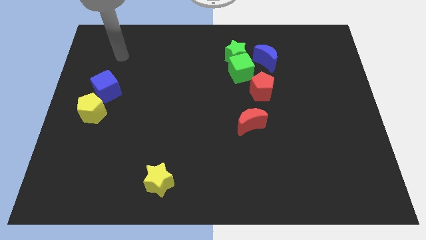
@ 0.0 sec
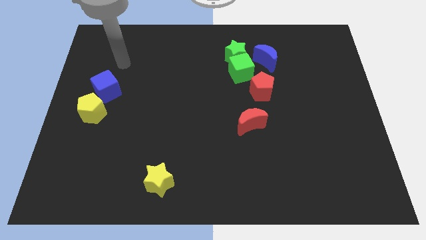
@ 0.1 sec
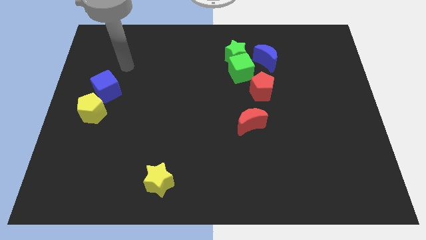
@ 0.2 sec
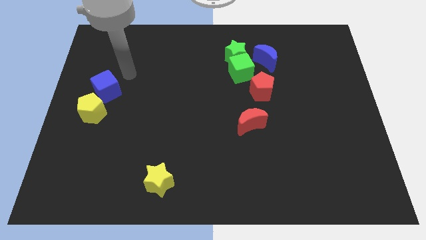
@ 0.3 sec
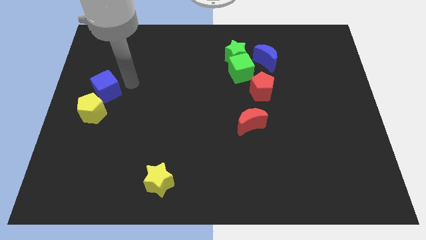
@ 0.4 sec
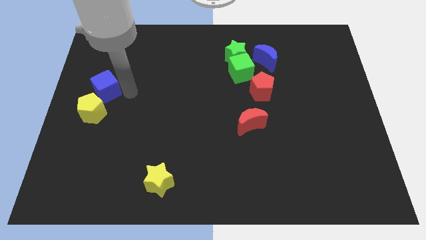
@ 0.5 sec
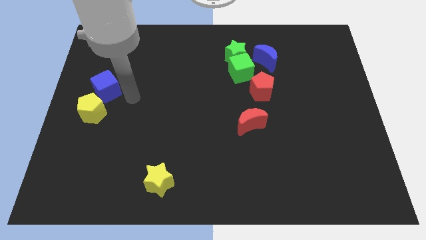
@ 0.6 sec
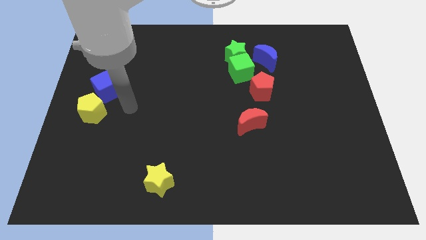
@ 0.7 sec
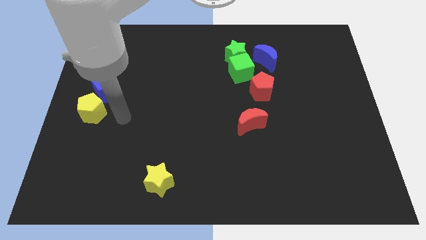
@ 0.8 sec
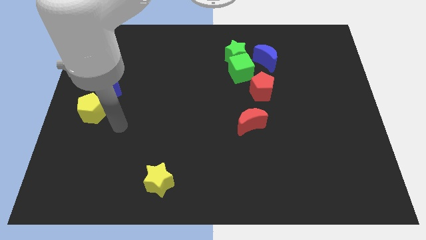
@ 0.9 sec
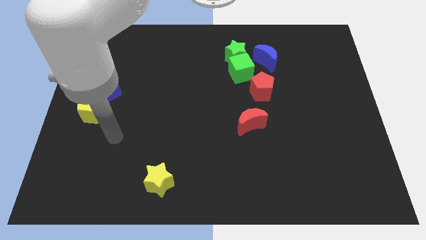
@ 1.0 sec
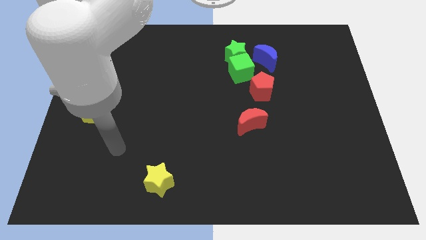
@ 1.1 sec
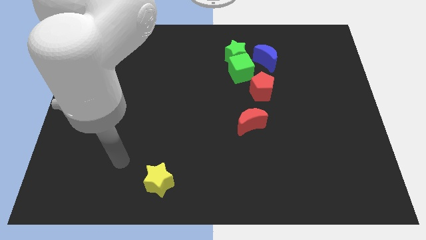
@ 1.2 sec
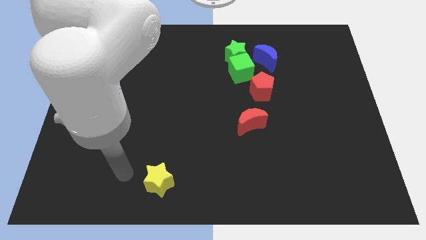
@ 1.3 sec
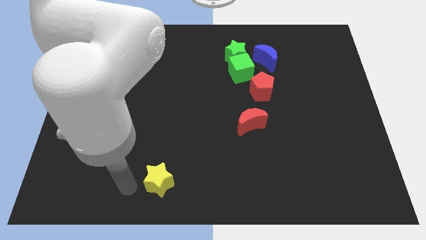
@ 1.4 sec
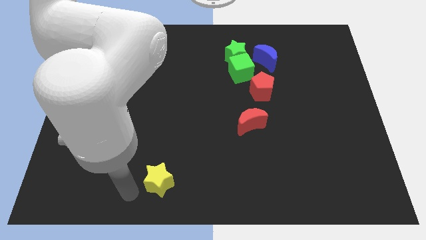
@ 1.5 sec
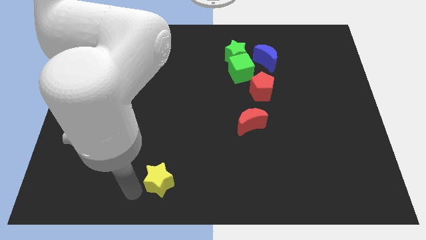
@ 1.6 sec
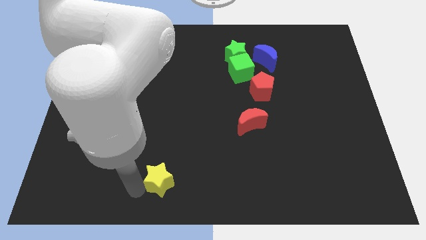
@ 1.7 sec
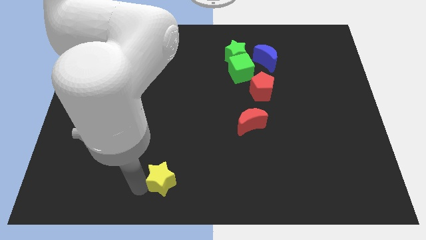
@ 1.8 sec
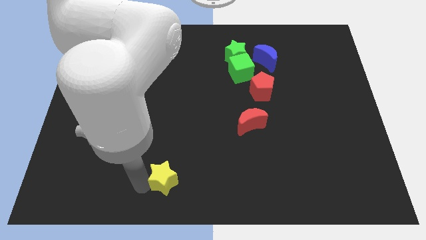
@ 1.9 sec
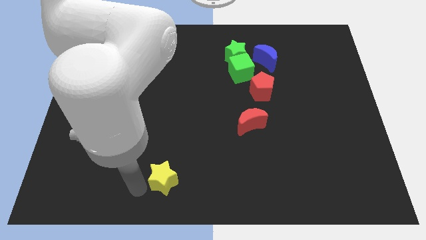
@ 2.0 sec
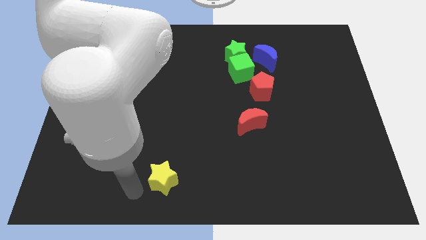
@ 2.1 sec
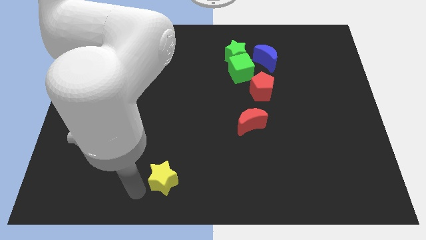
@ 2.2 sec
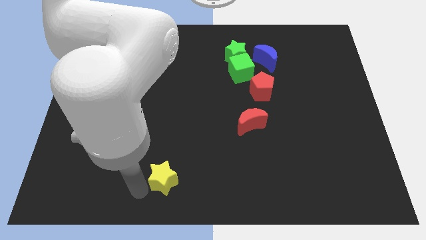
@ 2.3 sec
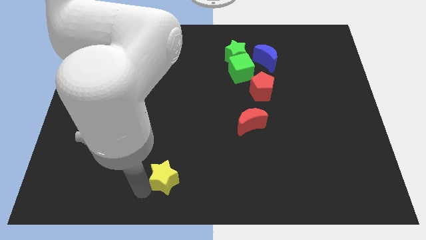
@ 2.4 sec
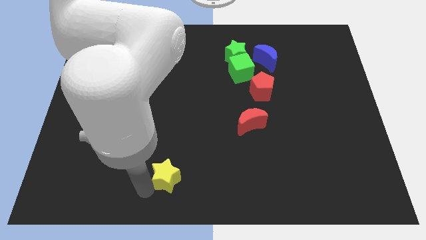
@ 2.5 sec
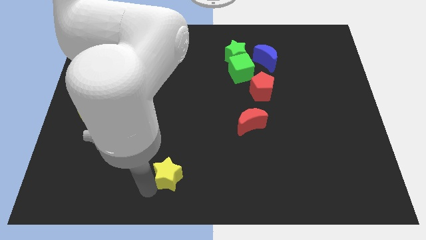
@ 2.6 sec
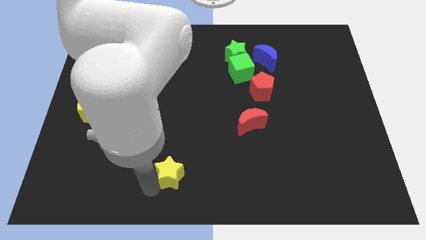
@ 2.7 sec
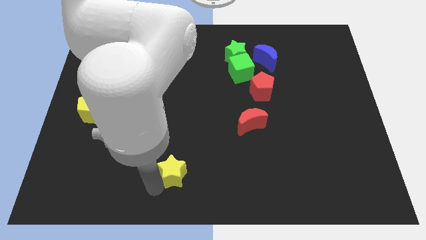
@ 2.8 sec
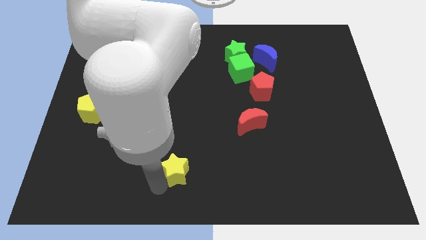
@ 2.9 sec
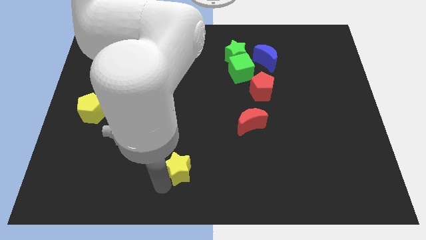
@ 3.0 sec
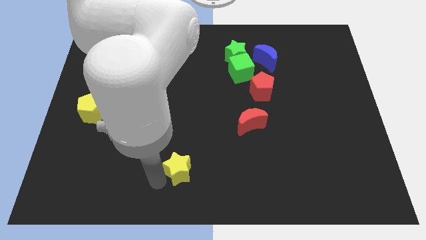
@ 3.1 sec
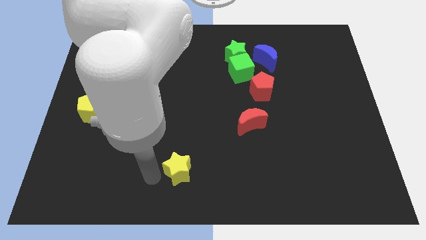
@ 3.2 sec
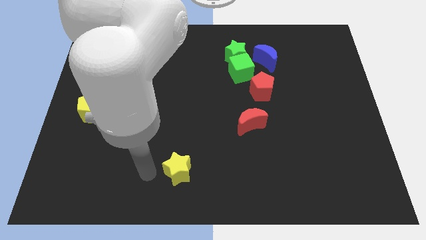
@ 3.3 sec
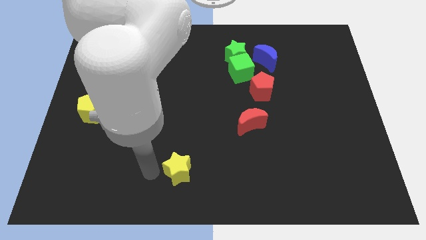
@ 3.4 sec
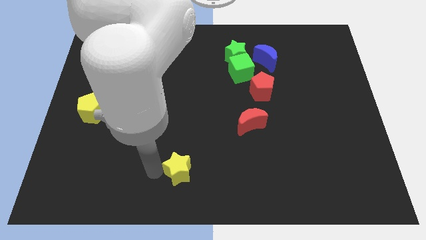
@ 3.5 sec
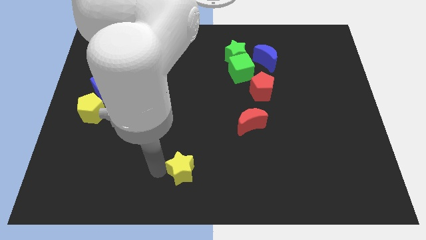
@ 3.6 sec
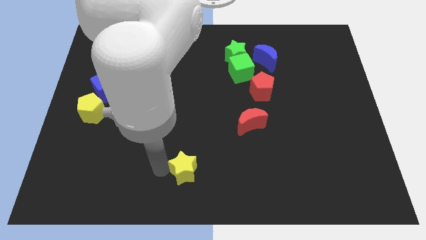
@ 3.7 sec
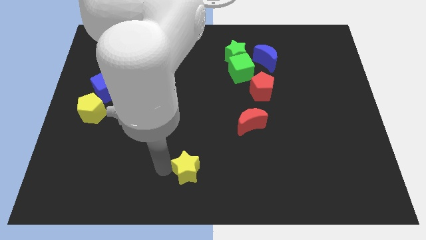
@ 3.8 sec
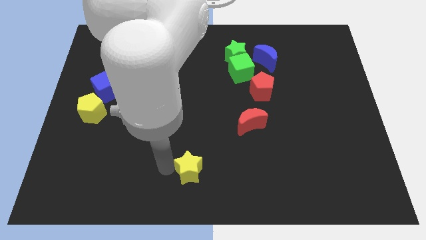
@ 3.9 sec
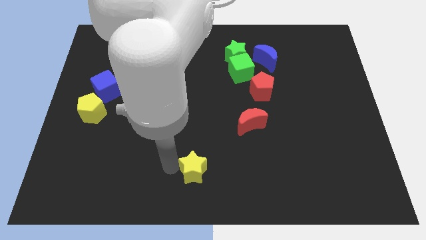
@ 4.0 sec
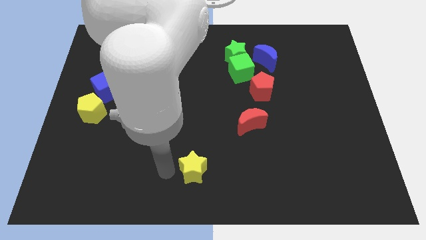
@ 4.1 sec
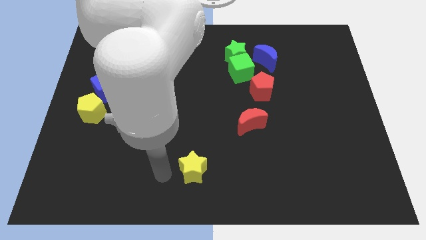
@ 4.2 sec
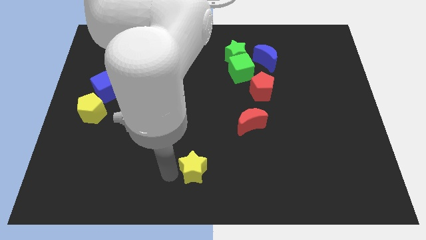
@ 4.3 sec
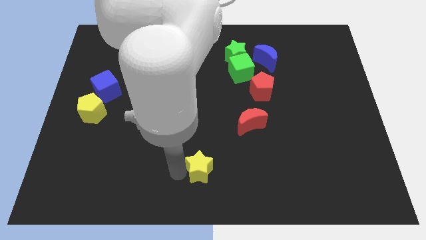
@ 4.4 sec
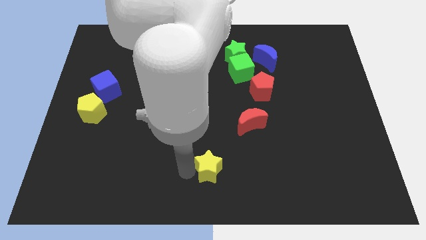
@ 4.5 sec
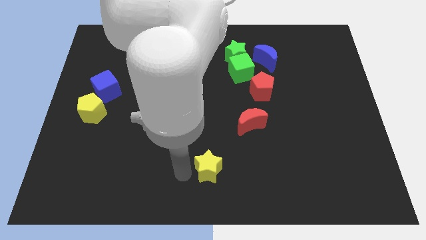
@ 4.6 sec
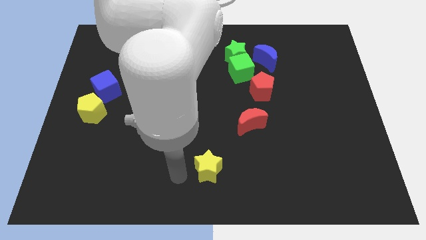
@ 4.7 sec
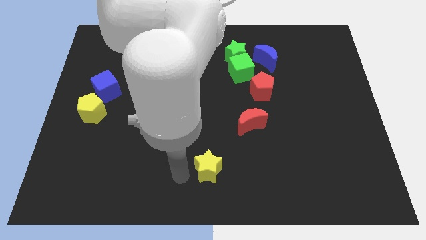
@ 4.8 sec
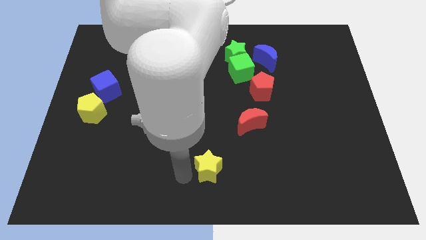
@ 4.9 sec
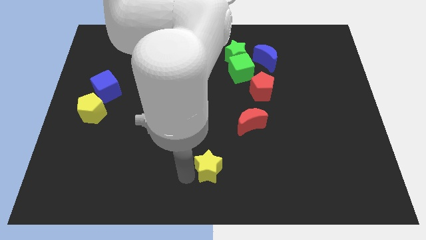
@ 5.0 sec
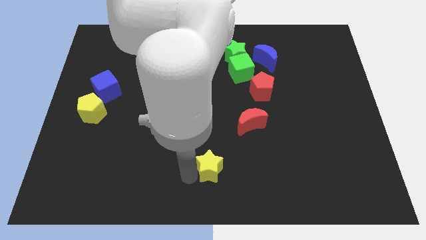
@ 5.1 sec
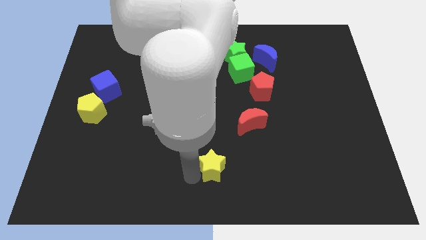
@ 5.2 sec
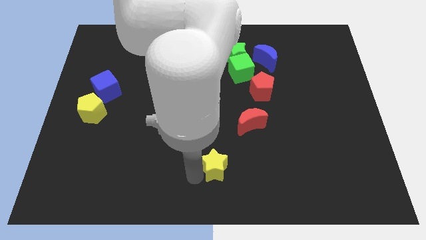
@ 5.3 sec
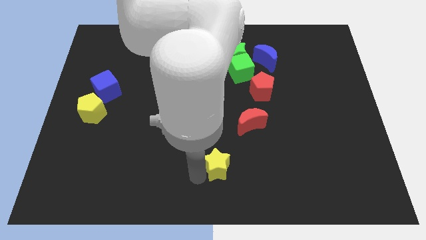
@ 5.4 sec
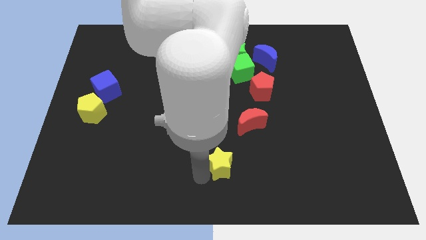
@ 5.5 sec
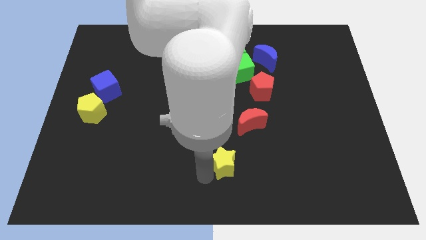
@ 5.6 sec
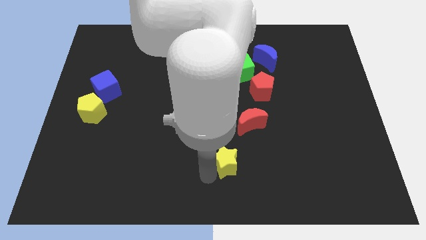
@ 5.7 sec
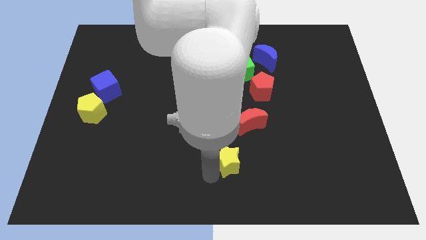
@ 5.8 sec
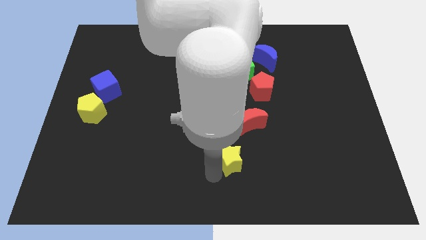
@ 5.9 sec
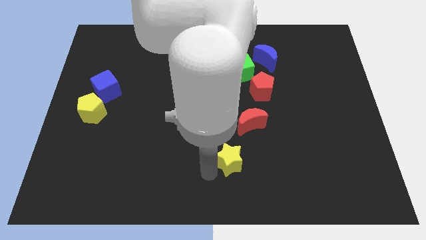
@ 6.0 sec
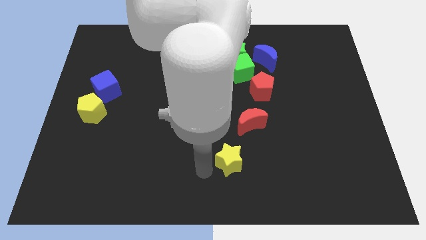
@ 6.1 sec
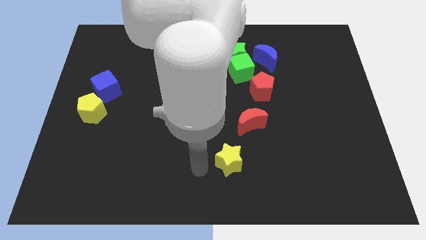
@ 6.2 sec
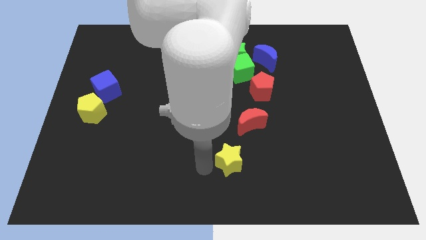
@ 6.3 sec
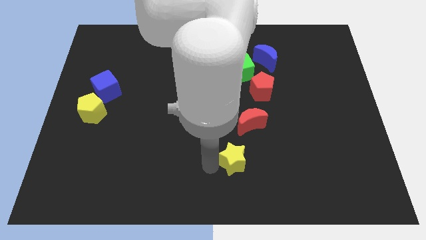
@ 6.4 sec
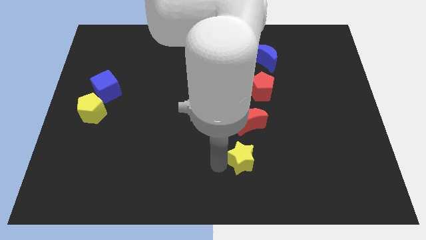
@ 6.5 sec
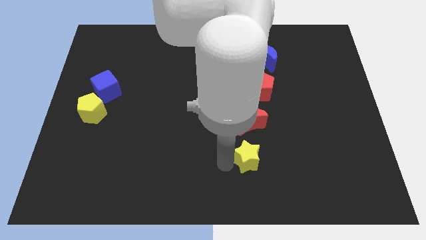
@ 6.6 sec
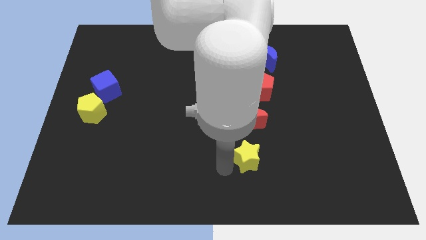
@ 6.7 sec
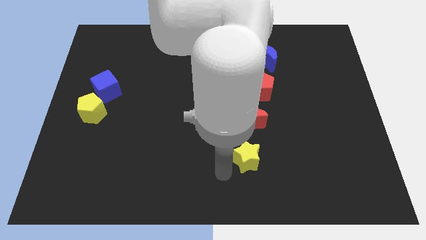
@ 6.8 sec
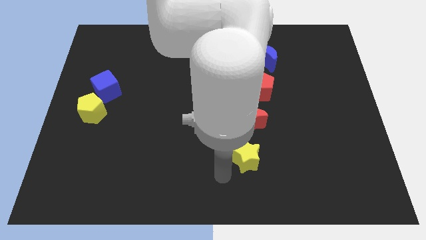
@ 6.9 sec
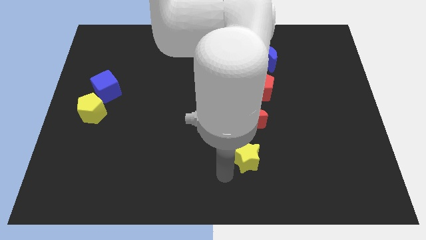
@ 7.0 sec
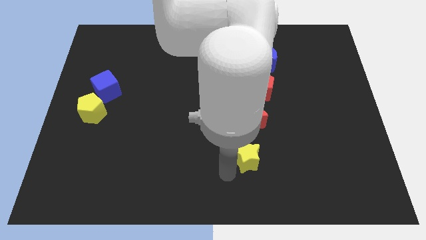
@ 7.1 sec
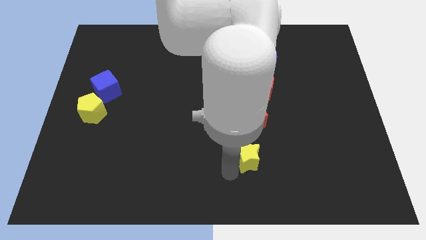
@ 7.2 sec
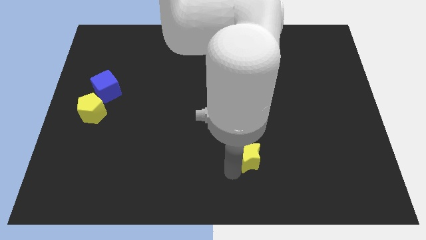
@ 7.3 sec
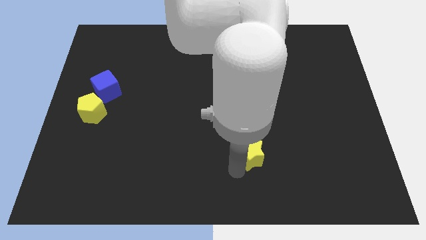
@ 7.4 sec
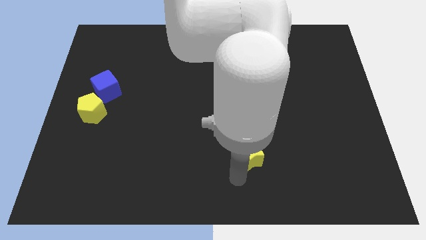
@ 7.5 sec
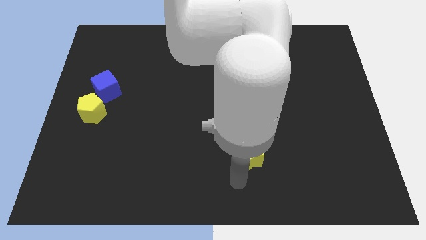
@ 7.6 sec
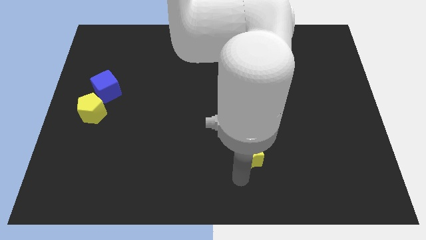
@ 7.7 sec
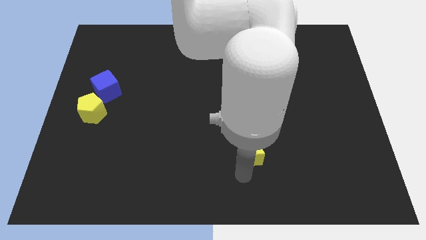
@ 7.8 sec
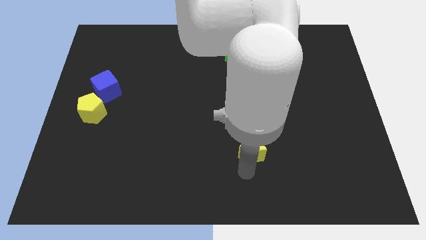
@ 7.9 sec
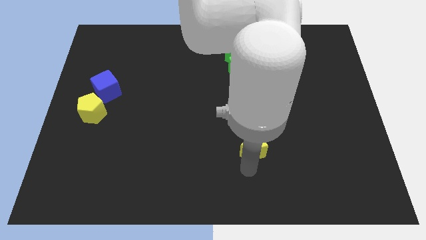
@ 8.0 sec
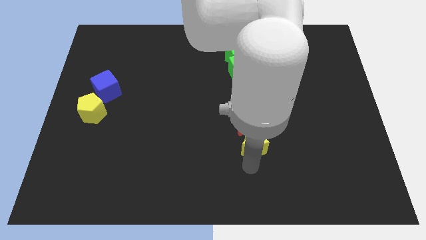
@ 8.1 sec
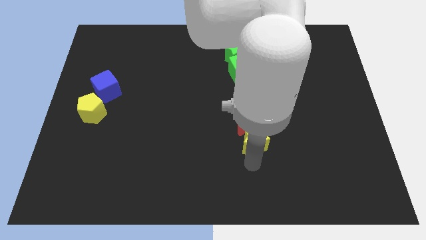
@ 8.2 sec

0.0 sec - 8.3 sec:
put the yellow star below the red pentagon
